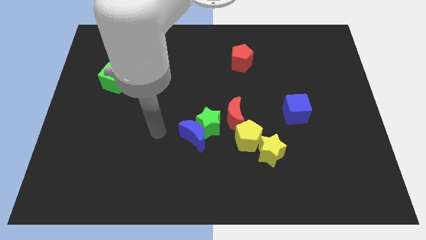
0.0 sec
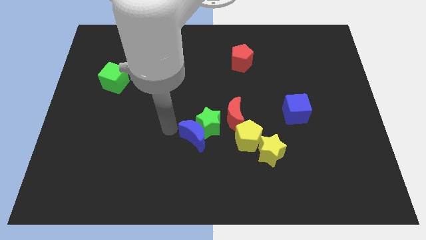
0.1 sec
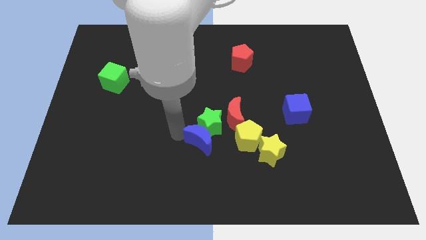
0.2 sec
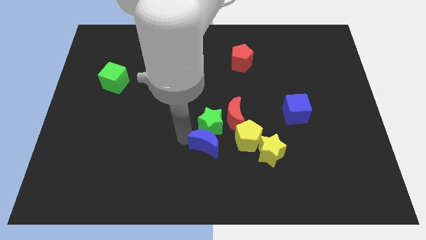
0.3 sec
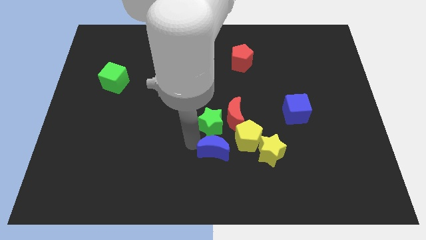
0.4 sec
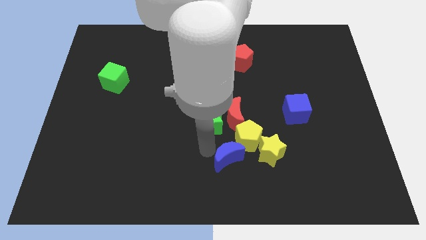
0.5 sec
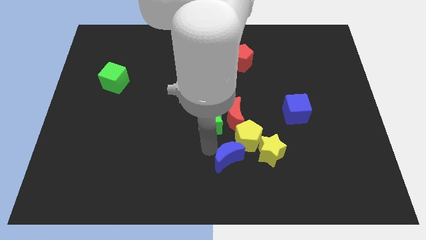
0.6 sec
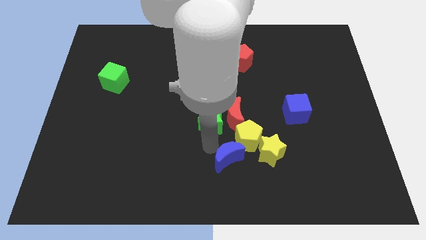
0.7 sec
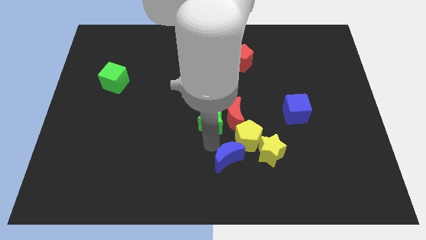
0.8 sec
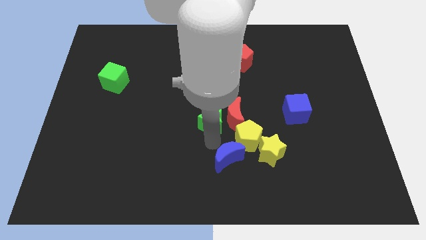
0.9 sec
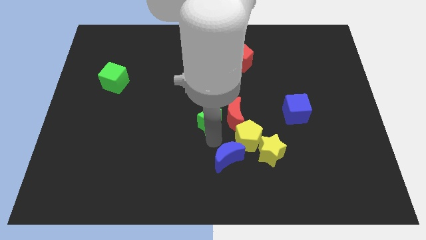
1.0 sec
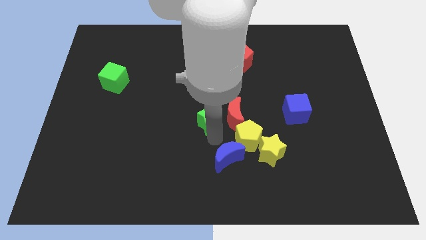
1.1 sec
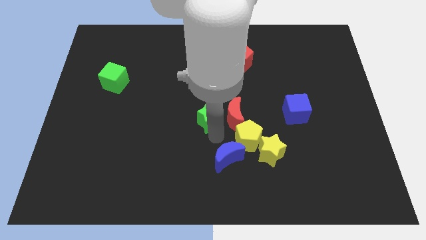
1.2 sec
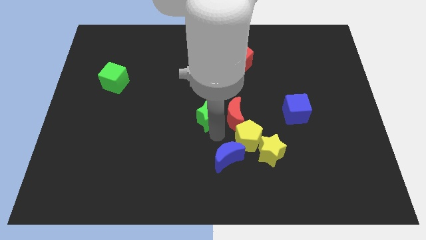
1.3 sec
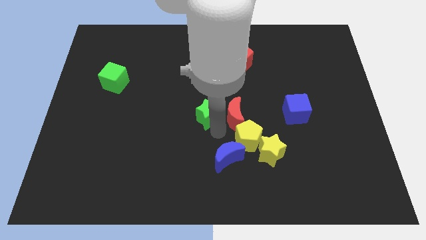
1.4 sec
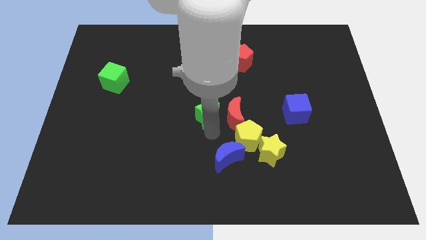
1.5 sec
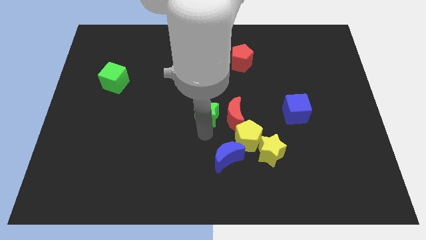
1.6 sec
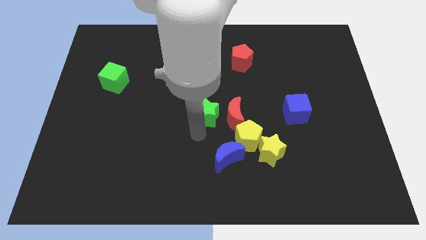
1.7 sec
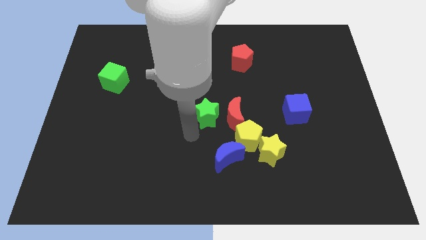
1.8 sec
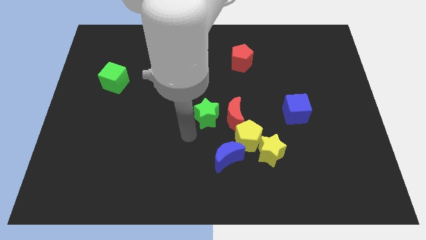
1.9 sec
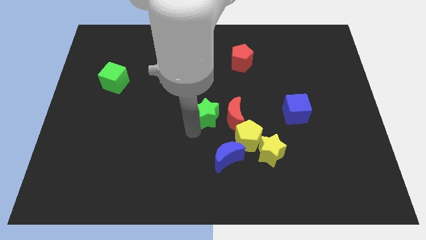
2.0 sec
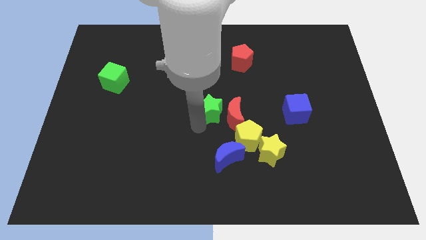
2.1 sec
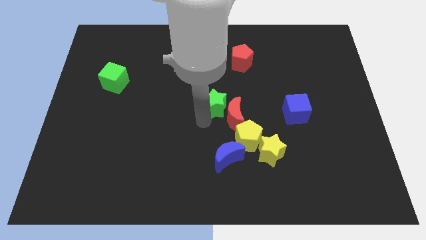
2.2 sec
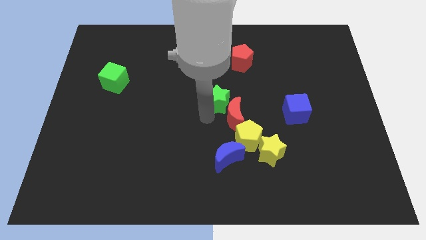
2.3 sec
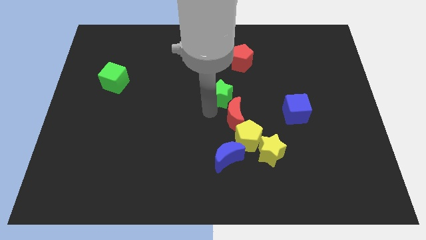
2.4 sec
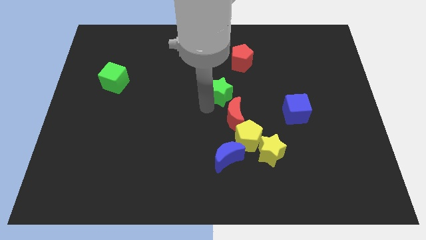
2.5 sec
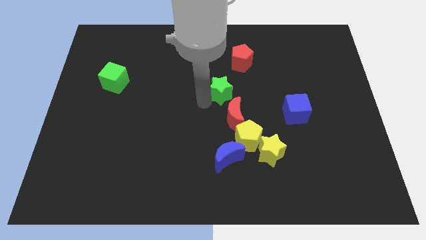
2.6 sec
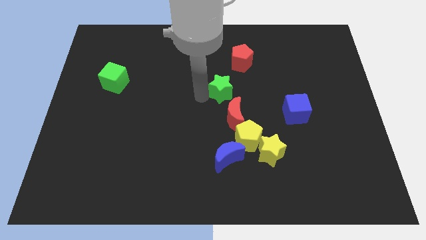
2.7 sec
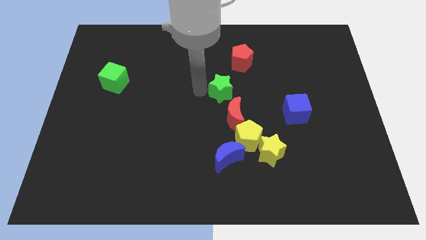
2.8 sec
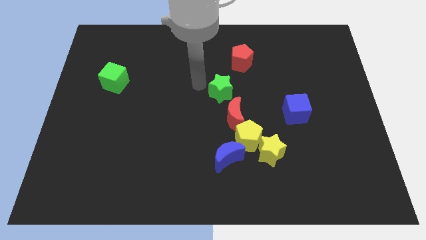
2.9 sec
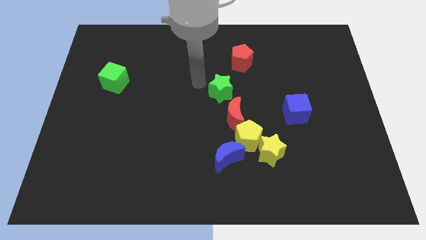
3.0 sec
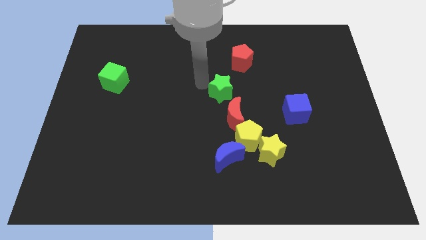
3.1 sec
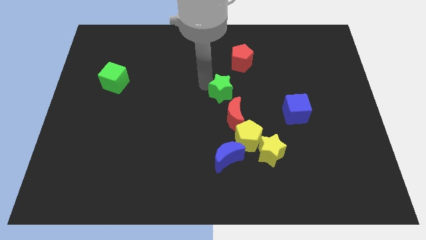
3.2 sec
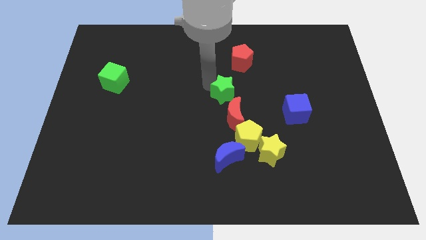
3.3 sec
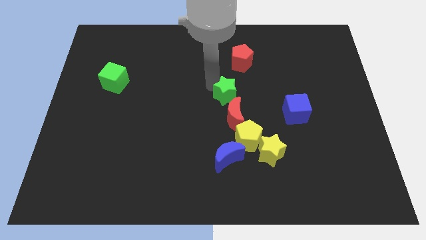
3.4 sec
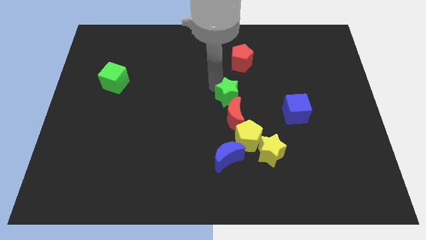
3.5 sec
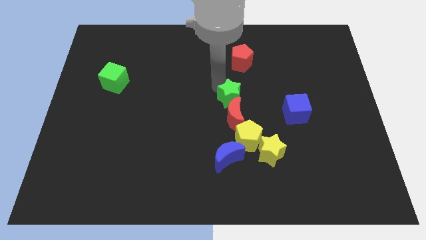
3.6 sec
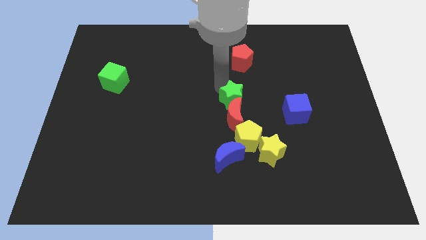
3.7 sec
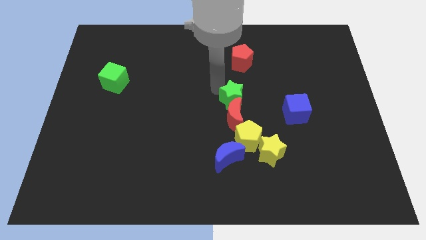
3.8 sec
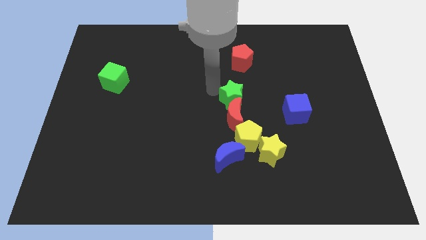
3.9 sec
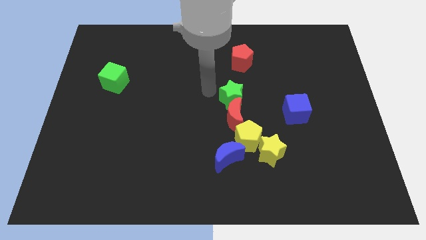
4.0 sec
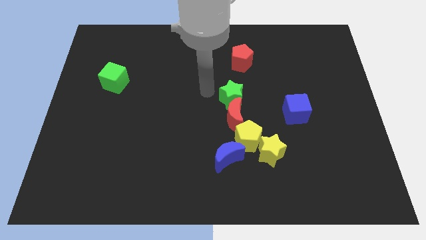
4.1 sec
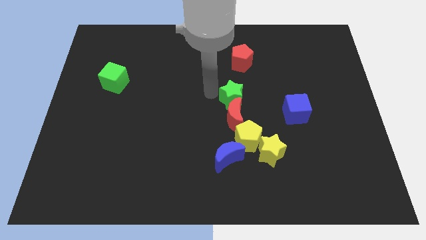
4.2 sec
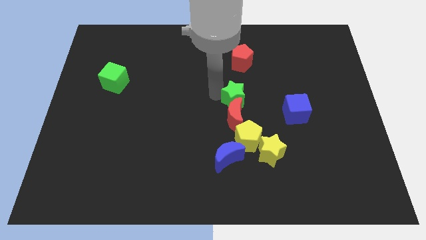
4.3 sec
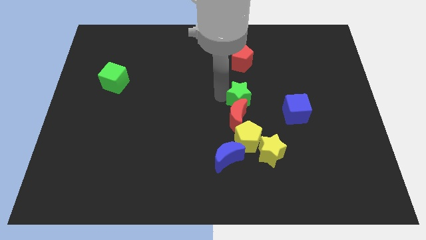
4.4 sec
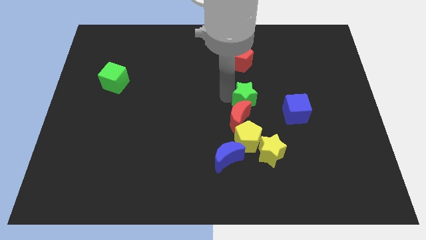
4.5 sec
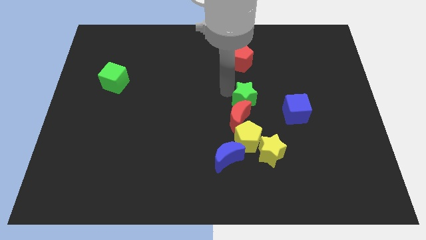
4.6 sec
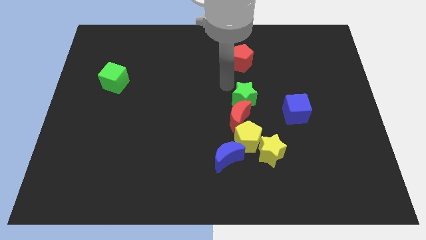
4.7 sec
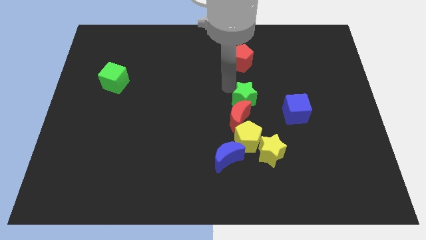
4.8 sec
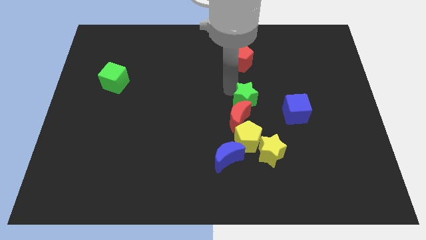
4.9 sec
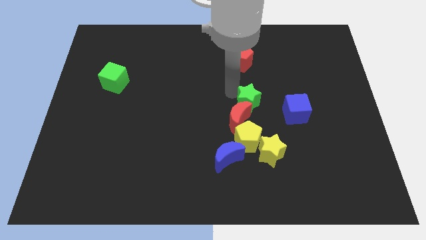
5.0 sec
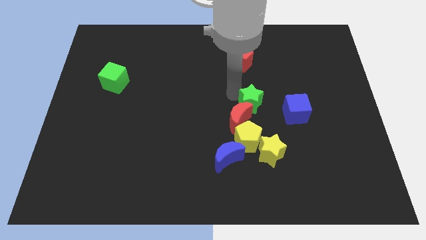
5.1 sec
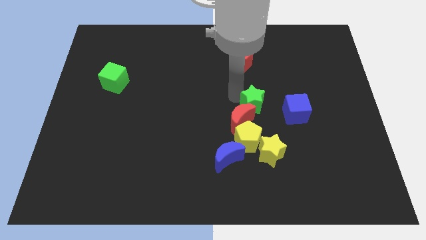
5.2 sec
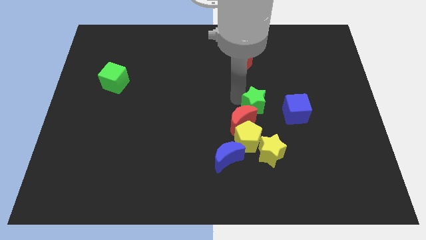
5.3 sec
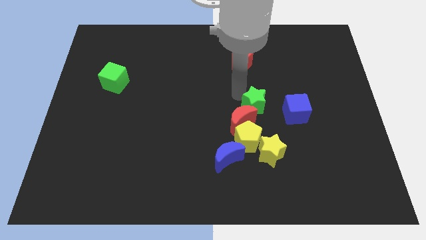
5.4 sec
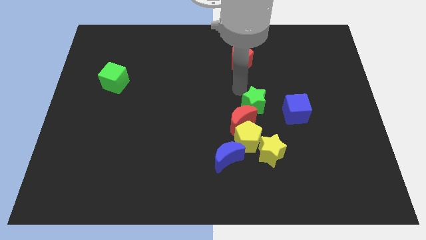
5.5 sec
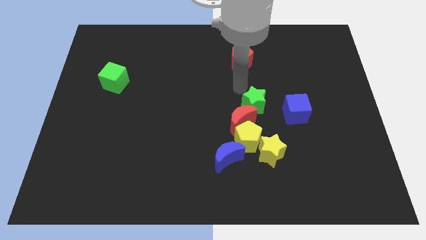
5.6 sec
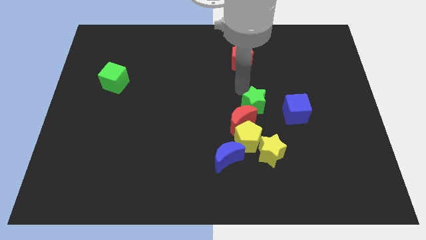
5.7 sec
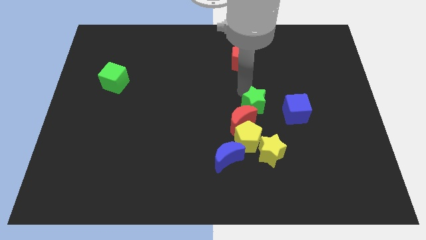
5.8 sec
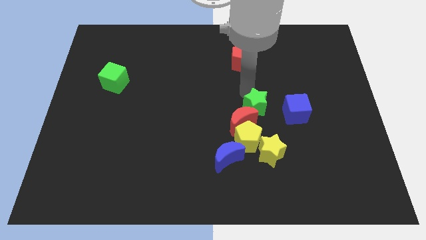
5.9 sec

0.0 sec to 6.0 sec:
move the green star diagonally up and to the right of the yellow pentagon

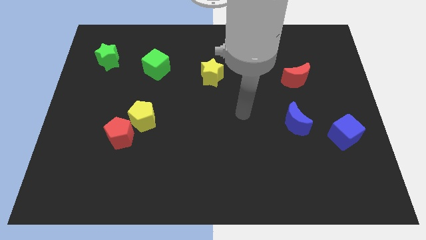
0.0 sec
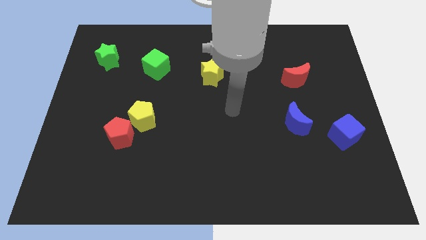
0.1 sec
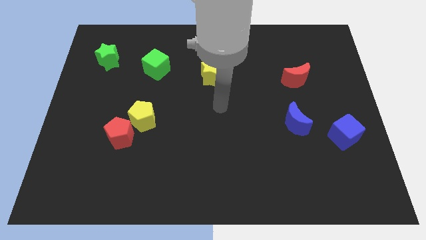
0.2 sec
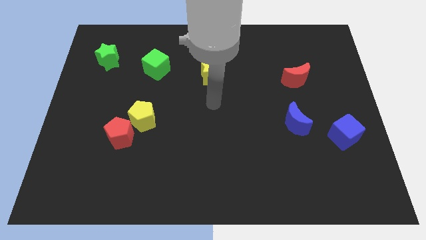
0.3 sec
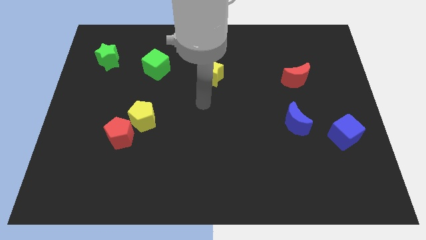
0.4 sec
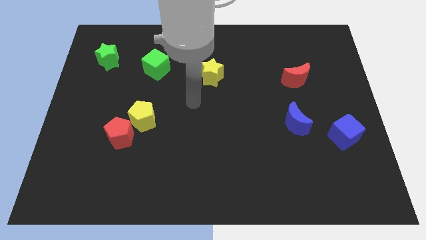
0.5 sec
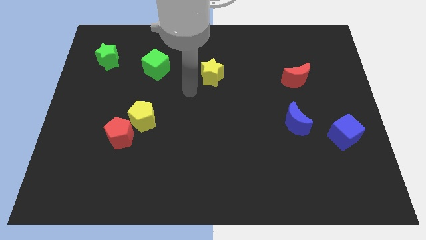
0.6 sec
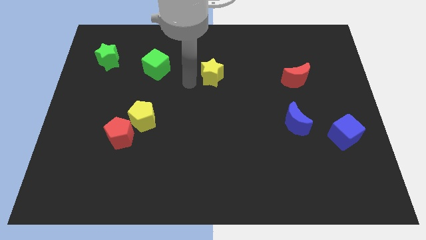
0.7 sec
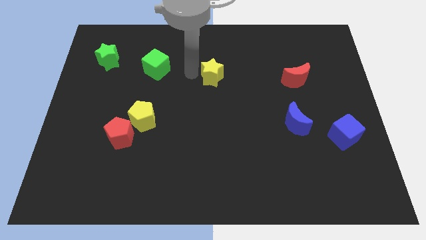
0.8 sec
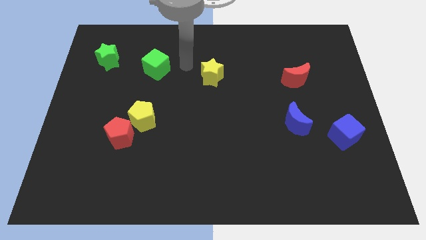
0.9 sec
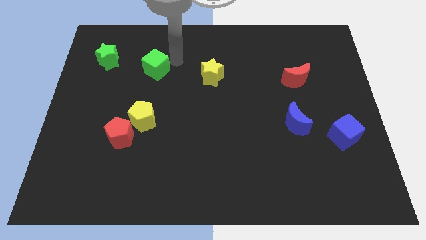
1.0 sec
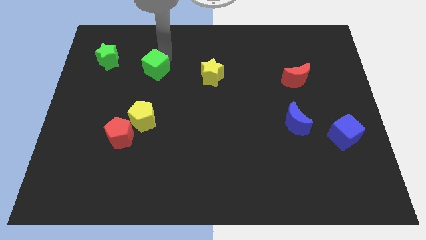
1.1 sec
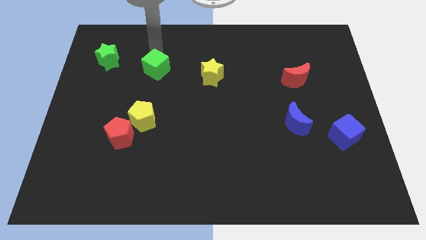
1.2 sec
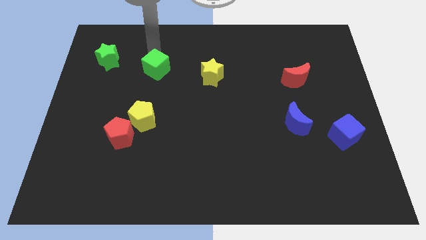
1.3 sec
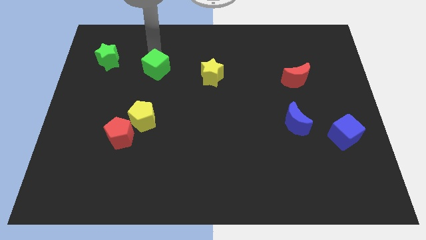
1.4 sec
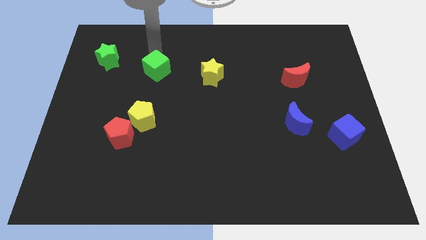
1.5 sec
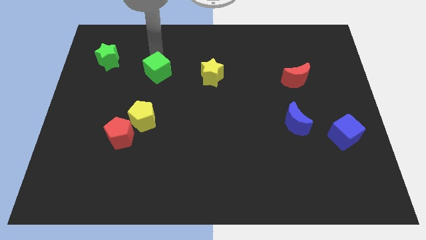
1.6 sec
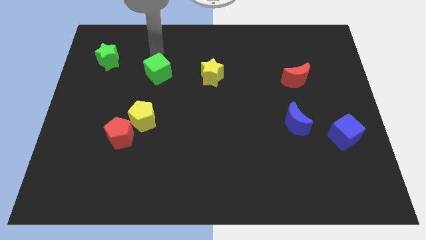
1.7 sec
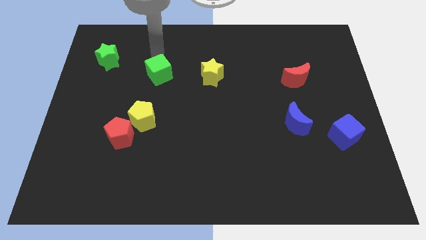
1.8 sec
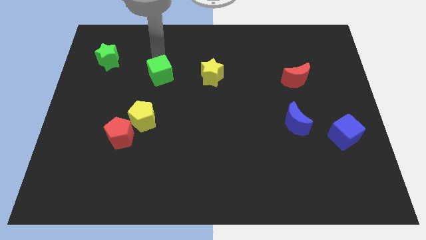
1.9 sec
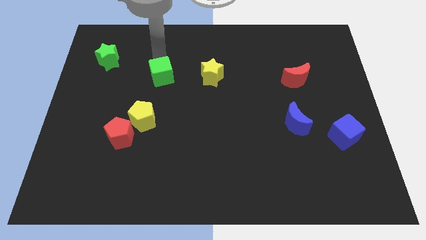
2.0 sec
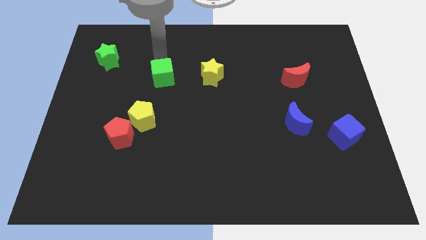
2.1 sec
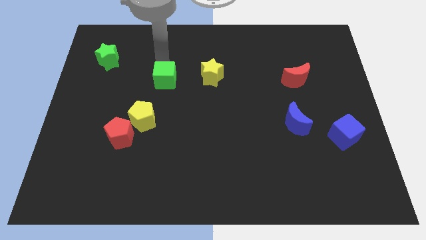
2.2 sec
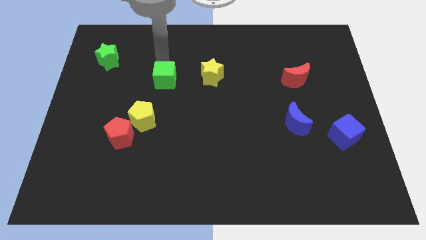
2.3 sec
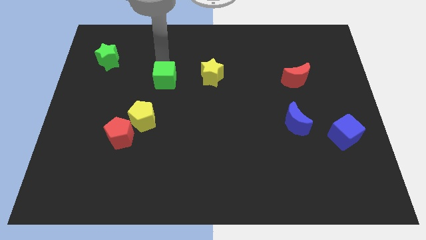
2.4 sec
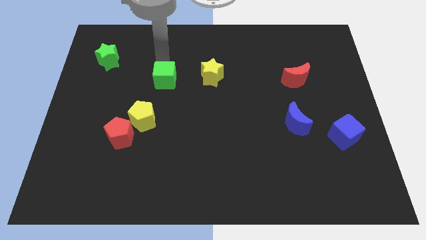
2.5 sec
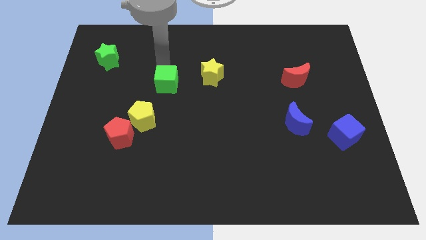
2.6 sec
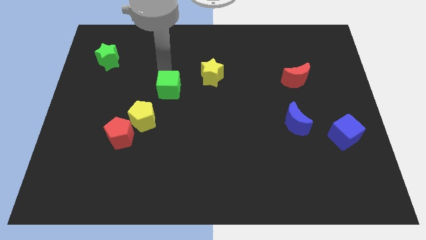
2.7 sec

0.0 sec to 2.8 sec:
move the green cube to the top right side of the yellow pentagon
